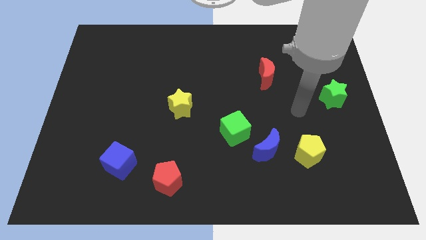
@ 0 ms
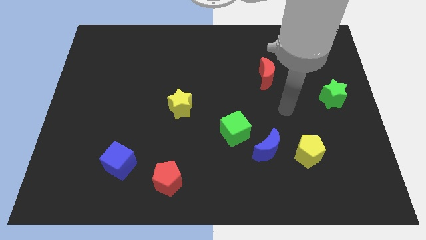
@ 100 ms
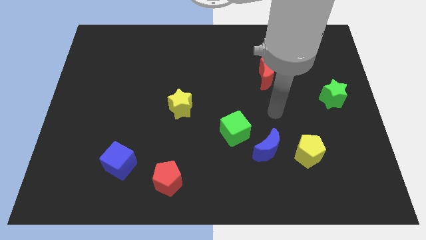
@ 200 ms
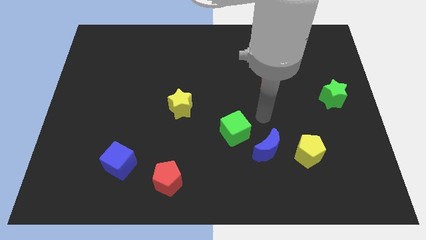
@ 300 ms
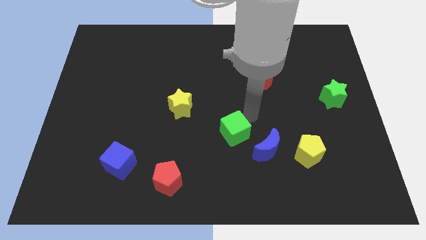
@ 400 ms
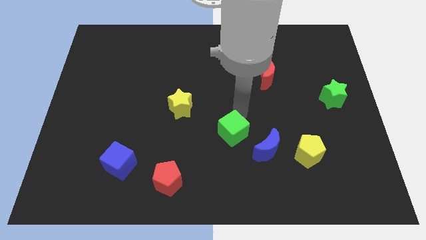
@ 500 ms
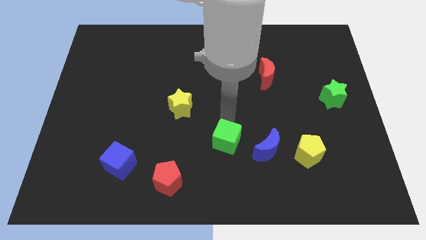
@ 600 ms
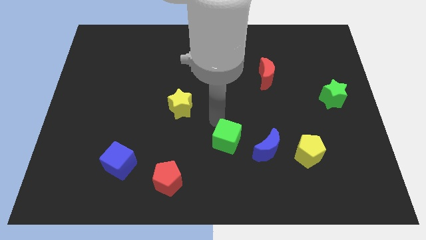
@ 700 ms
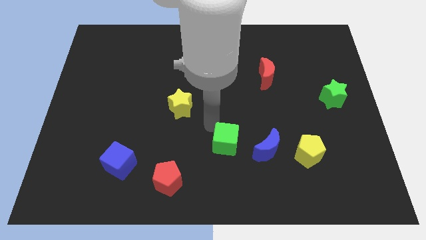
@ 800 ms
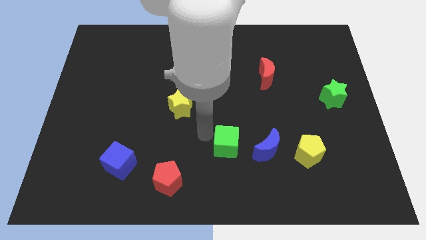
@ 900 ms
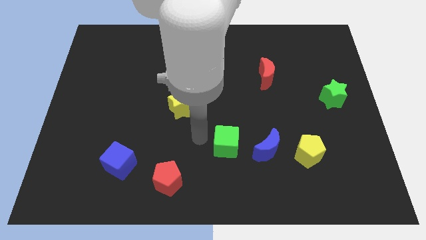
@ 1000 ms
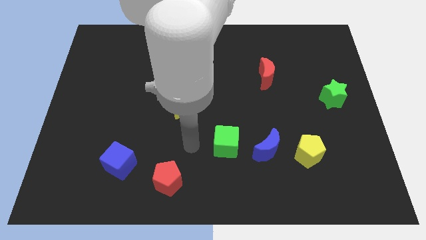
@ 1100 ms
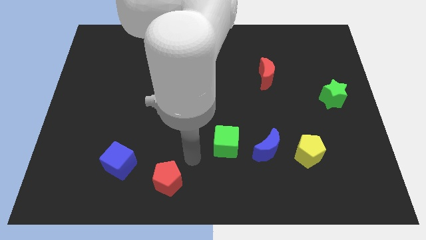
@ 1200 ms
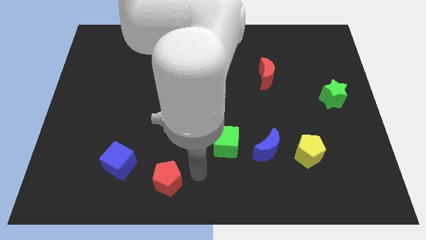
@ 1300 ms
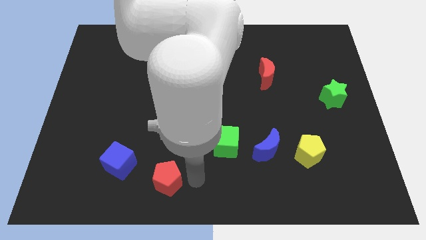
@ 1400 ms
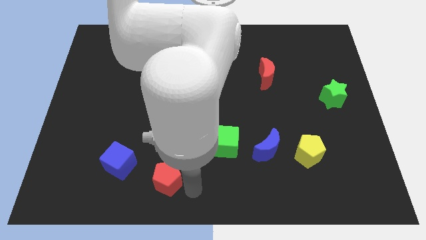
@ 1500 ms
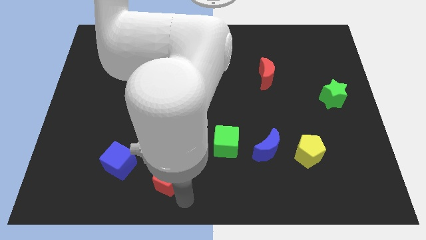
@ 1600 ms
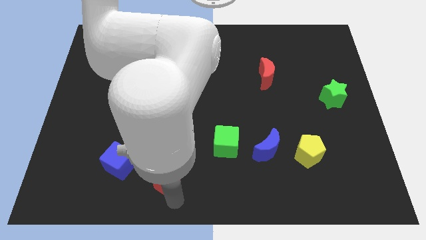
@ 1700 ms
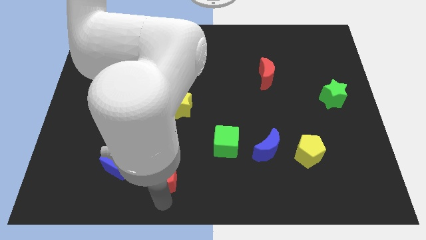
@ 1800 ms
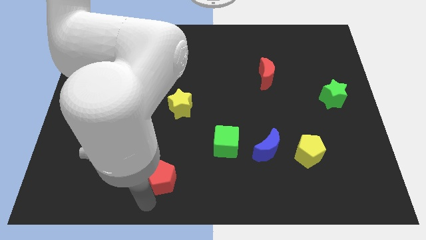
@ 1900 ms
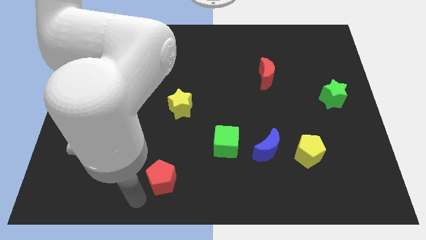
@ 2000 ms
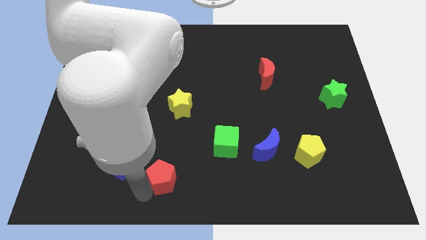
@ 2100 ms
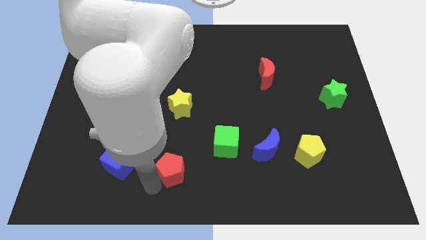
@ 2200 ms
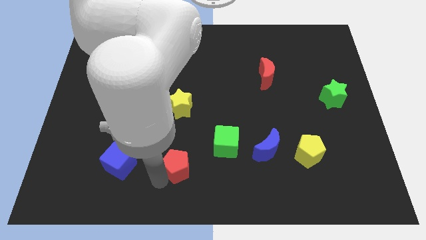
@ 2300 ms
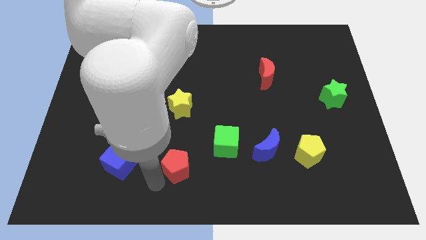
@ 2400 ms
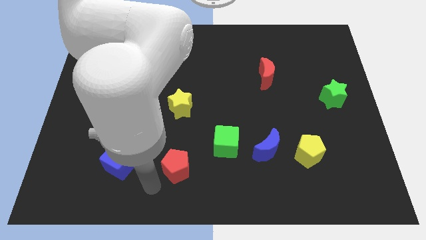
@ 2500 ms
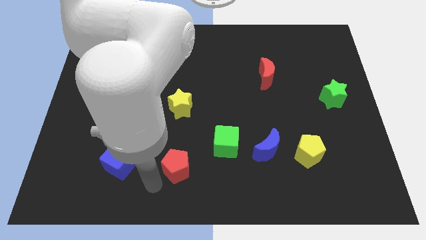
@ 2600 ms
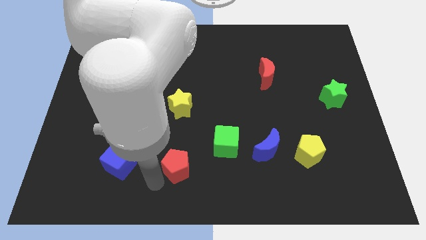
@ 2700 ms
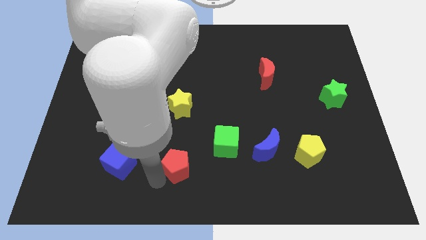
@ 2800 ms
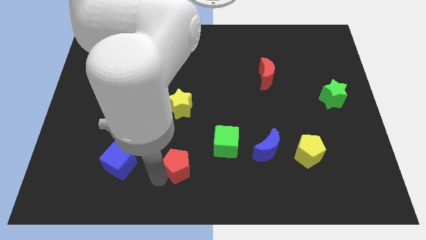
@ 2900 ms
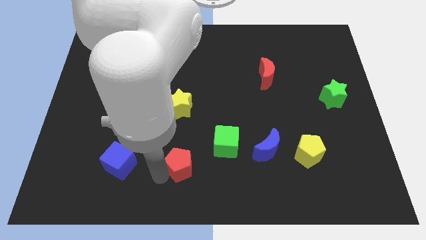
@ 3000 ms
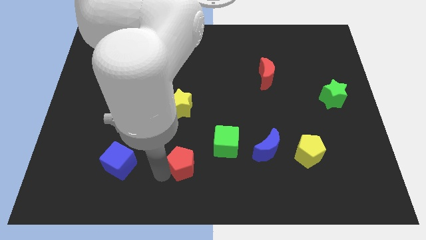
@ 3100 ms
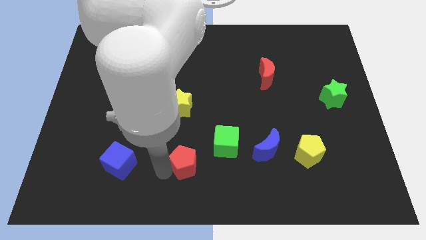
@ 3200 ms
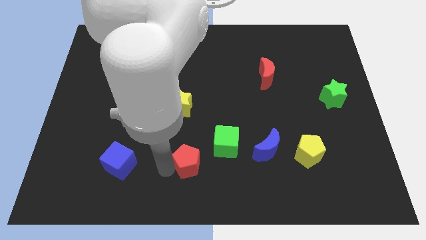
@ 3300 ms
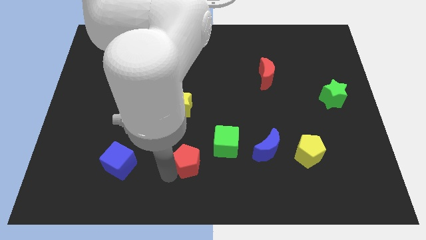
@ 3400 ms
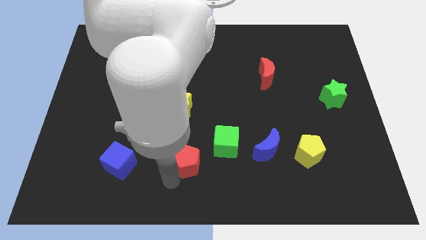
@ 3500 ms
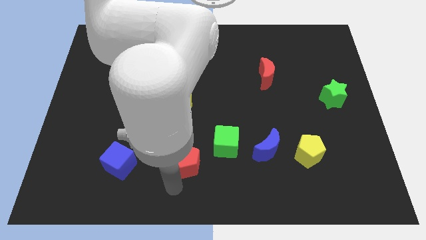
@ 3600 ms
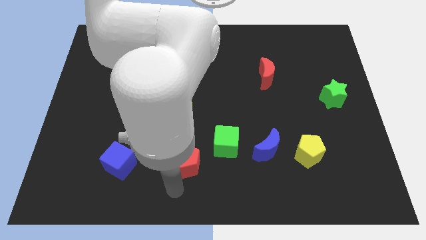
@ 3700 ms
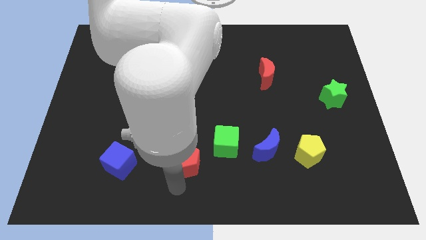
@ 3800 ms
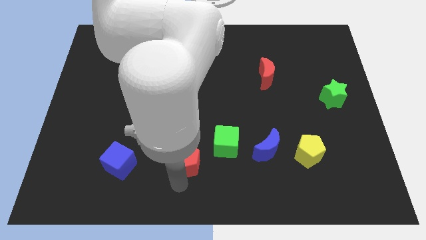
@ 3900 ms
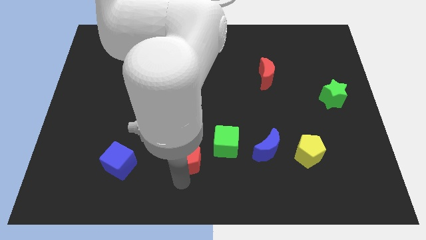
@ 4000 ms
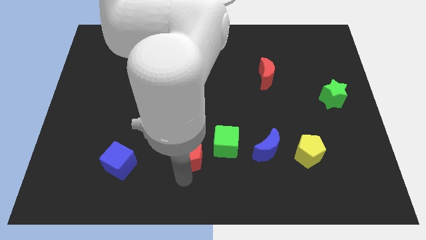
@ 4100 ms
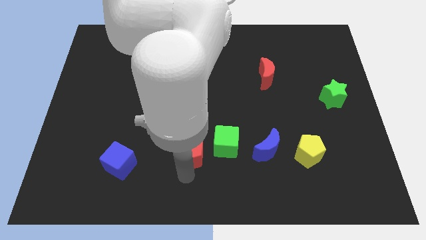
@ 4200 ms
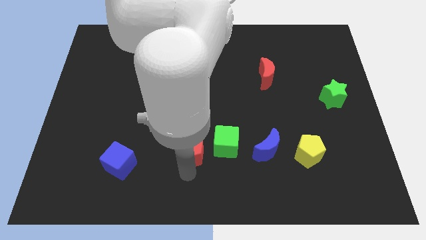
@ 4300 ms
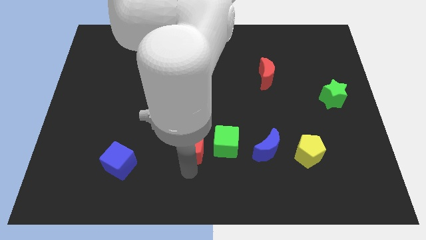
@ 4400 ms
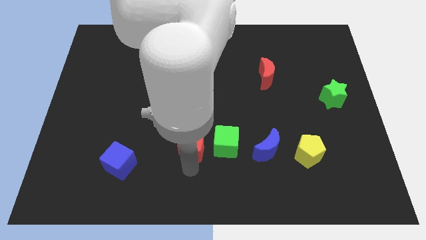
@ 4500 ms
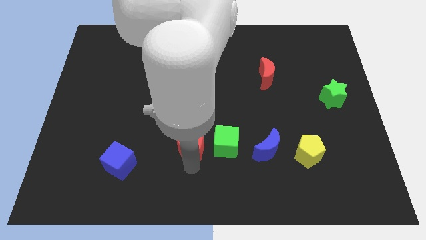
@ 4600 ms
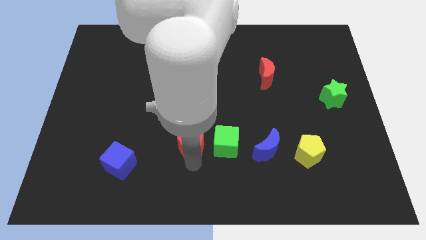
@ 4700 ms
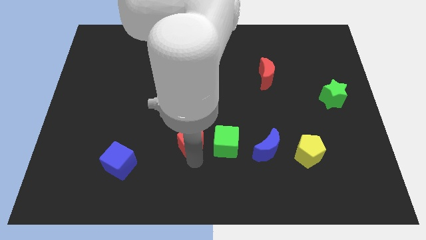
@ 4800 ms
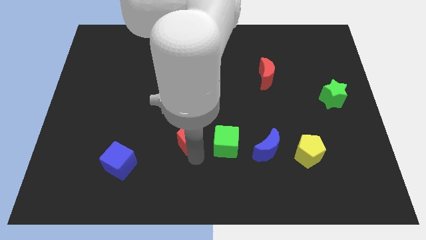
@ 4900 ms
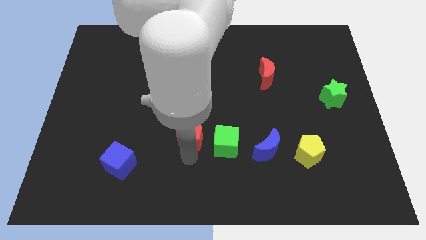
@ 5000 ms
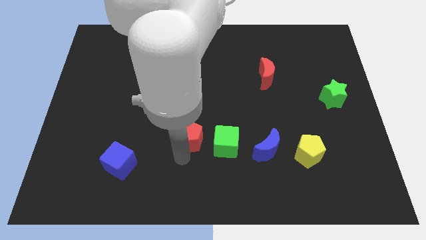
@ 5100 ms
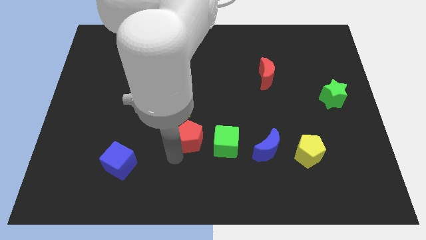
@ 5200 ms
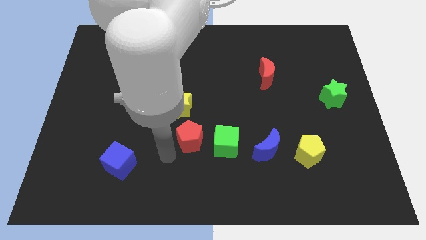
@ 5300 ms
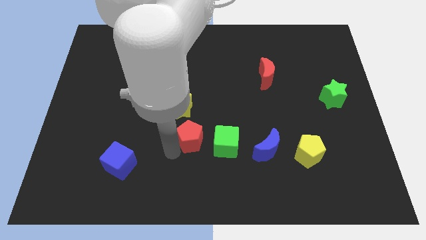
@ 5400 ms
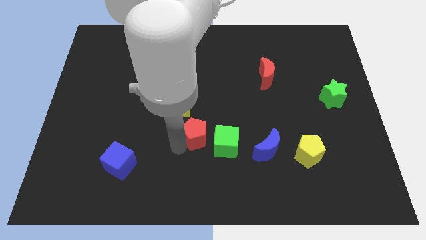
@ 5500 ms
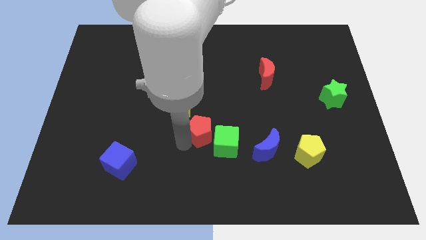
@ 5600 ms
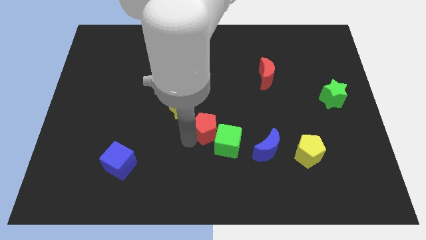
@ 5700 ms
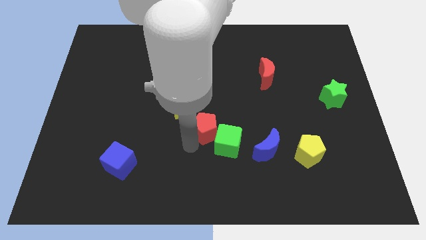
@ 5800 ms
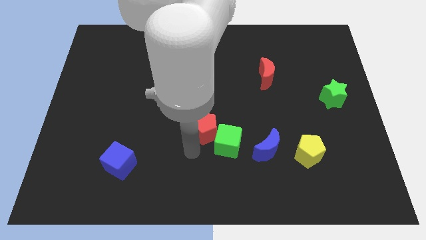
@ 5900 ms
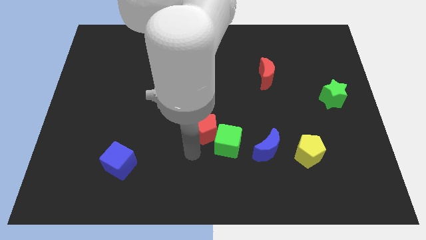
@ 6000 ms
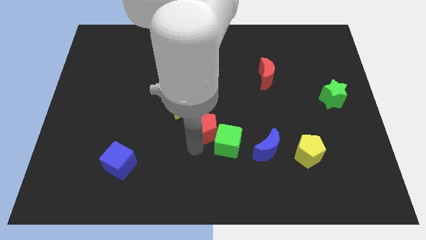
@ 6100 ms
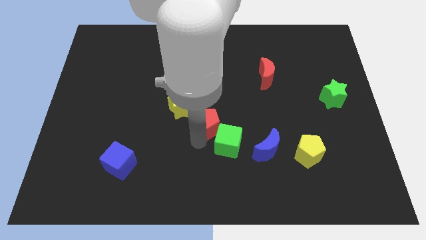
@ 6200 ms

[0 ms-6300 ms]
move the red pentagon to the top of the green cube

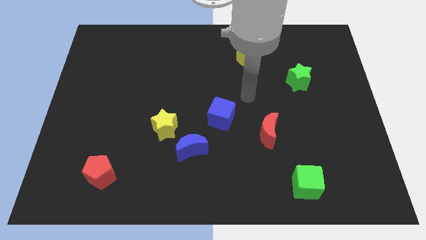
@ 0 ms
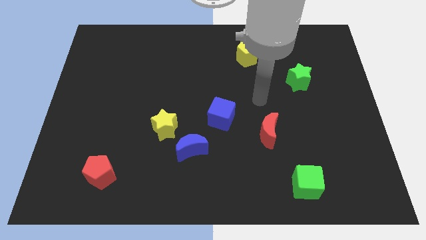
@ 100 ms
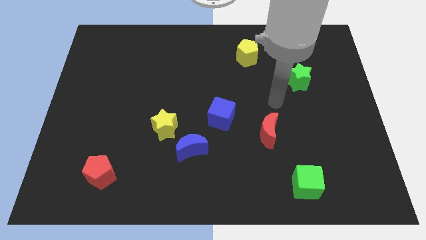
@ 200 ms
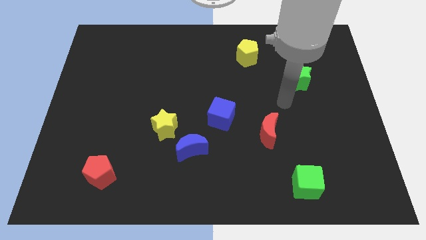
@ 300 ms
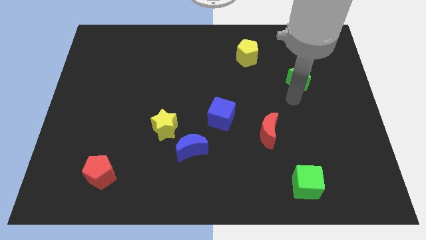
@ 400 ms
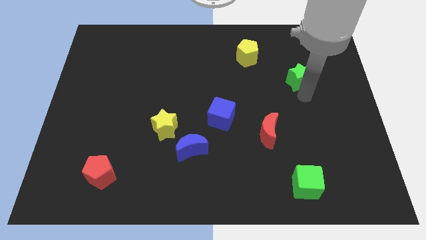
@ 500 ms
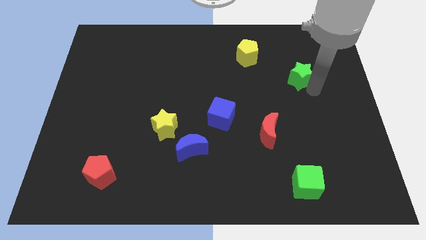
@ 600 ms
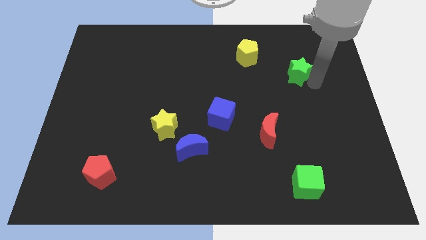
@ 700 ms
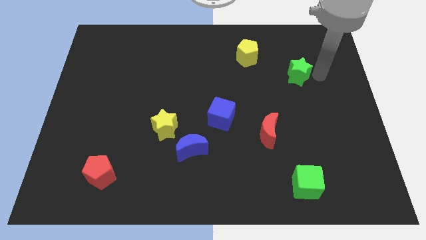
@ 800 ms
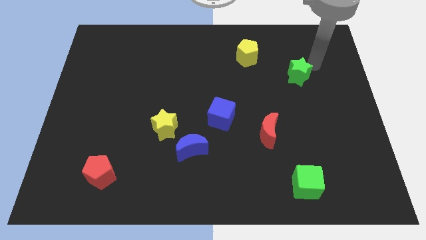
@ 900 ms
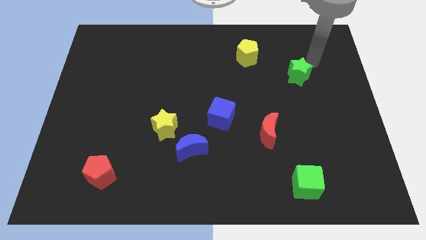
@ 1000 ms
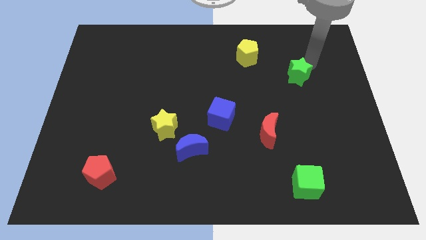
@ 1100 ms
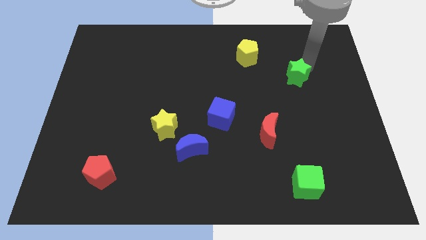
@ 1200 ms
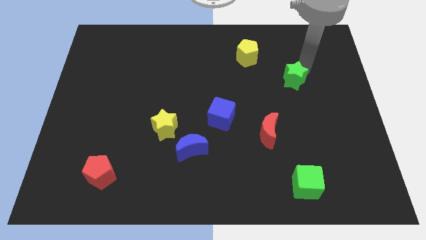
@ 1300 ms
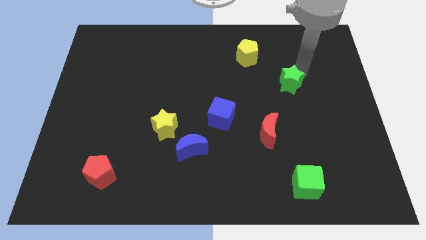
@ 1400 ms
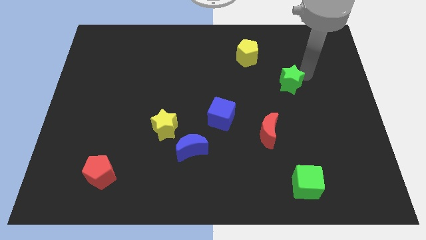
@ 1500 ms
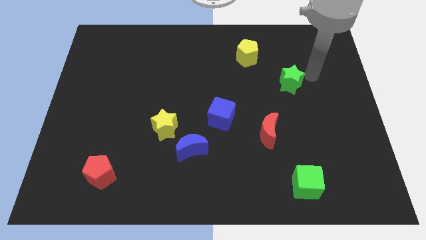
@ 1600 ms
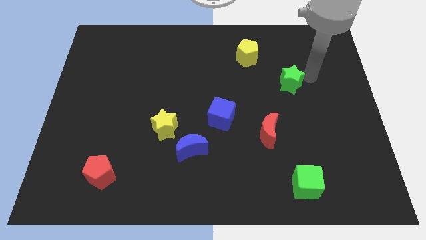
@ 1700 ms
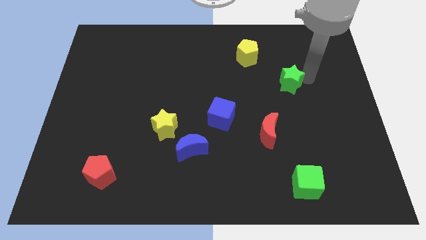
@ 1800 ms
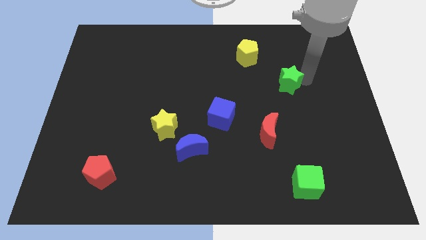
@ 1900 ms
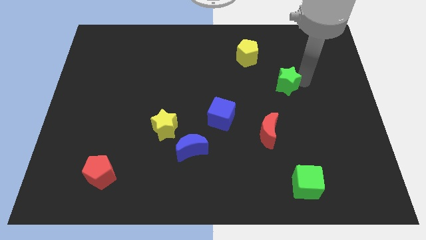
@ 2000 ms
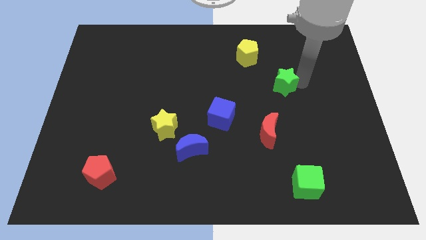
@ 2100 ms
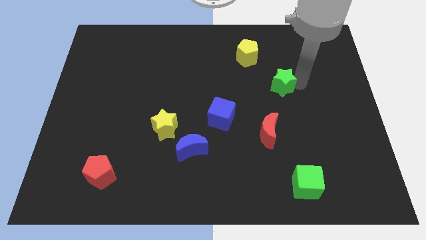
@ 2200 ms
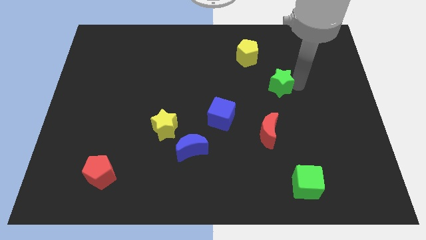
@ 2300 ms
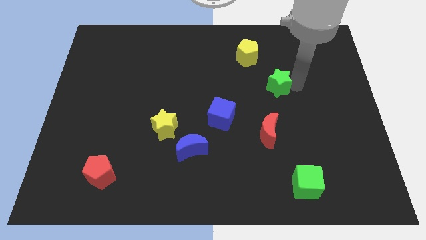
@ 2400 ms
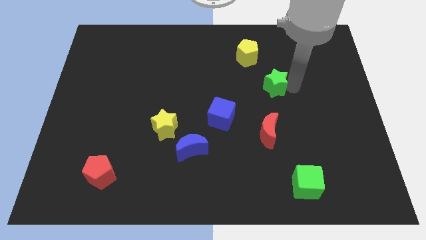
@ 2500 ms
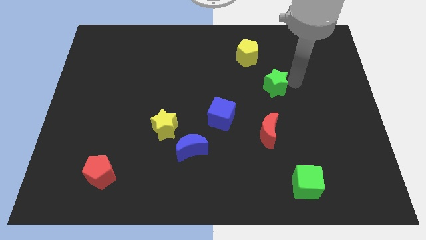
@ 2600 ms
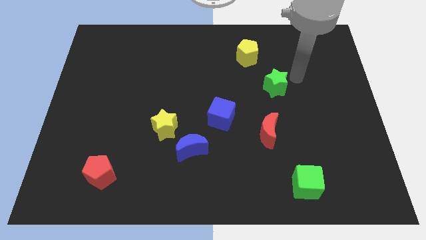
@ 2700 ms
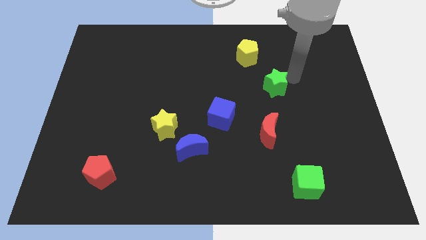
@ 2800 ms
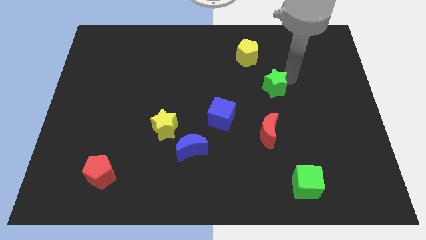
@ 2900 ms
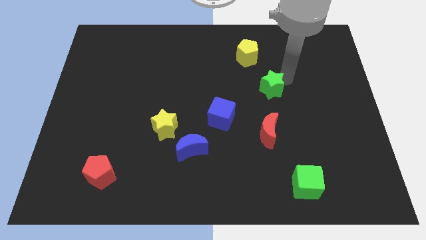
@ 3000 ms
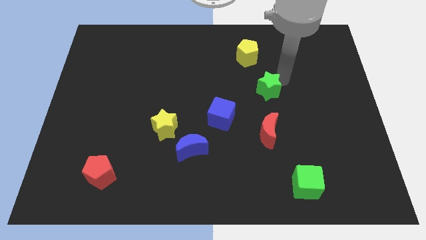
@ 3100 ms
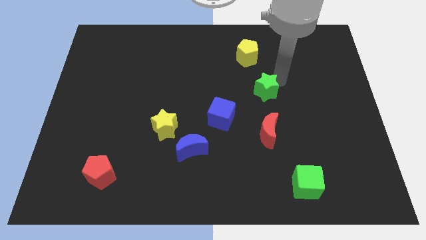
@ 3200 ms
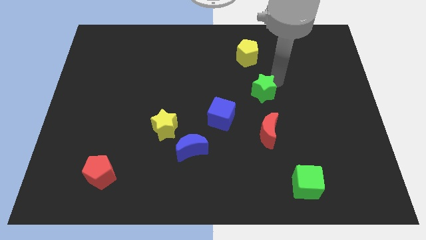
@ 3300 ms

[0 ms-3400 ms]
move the green star to the top right side of the blue cube
